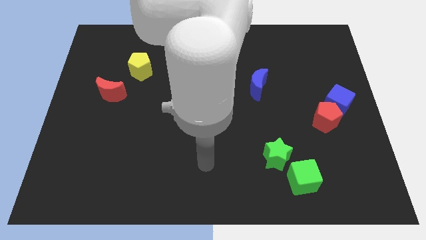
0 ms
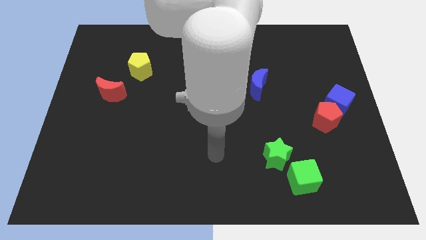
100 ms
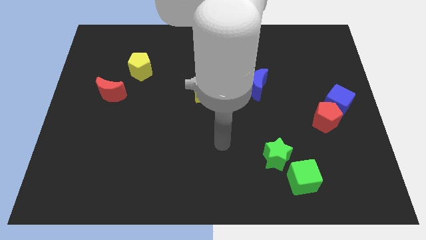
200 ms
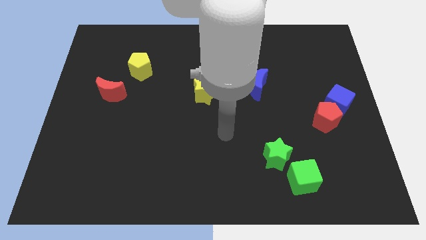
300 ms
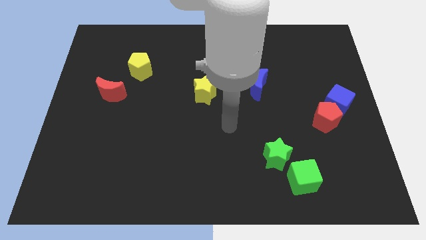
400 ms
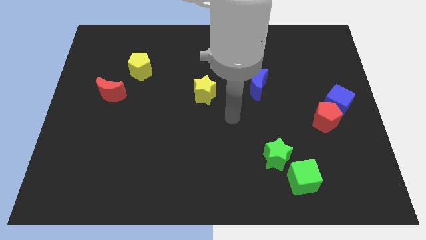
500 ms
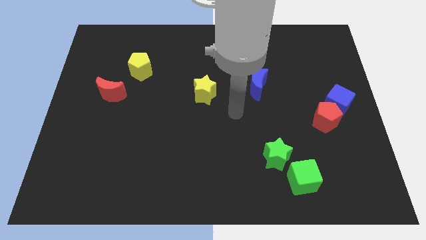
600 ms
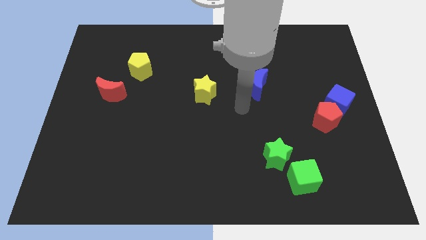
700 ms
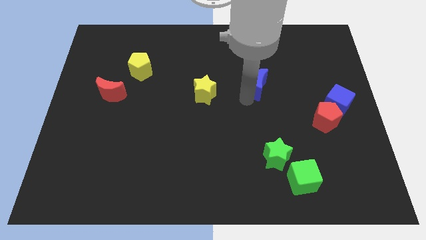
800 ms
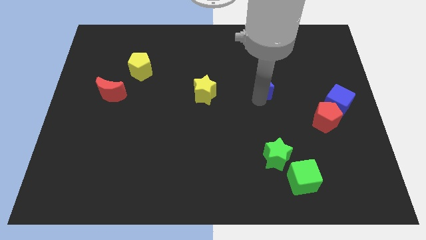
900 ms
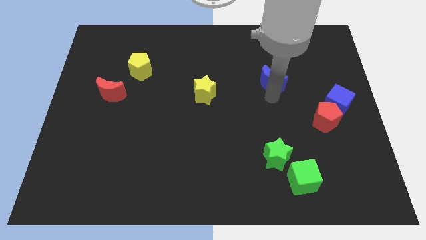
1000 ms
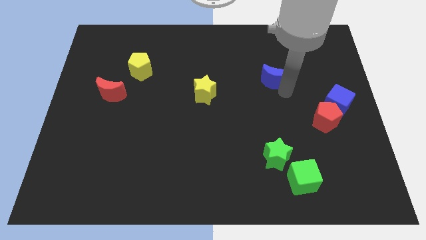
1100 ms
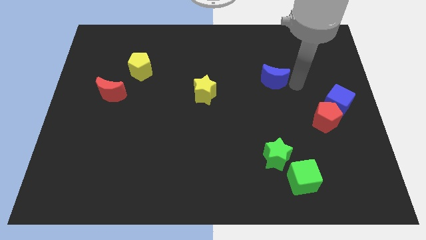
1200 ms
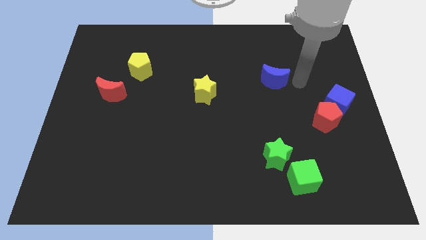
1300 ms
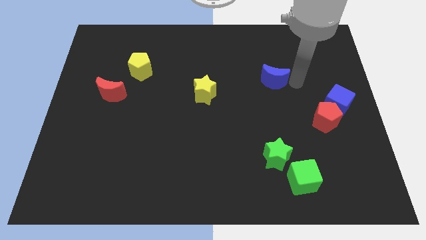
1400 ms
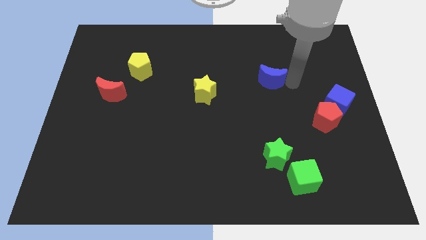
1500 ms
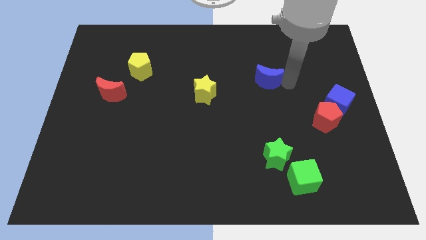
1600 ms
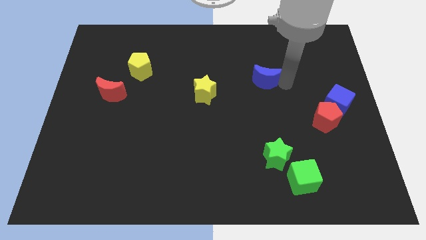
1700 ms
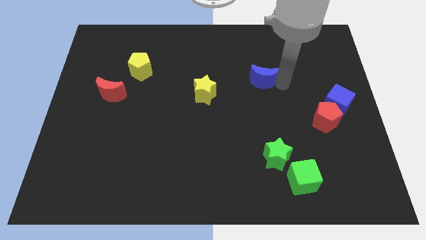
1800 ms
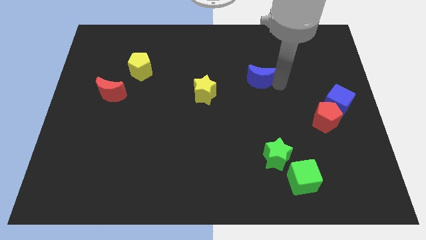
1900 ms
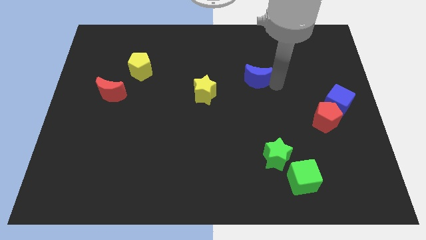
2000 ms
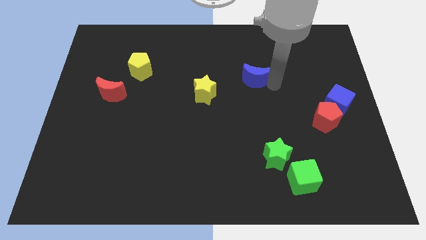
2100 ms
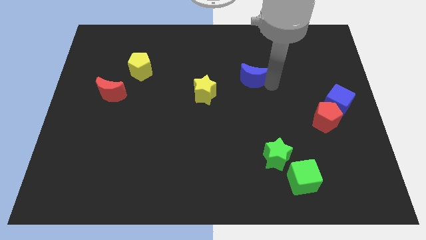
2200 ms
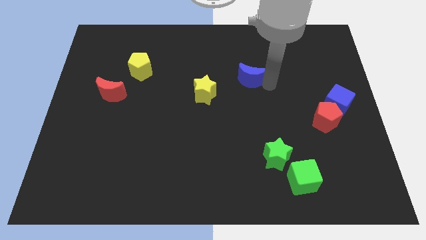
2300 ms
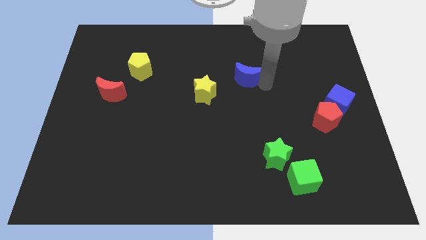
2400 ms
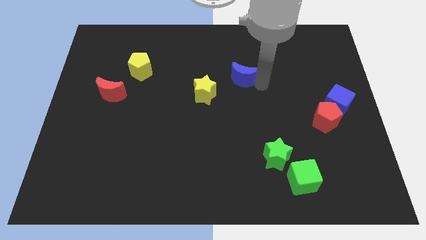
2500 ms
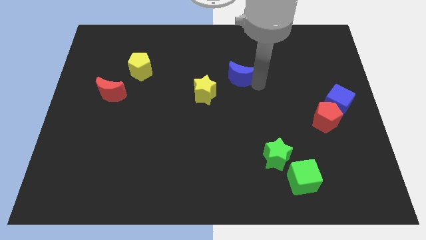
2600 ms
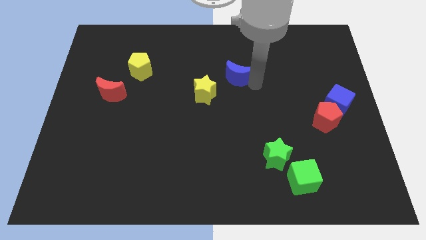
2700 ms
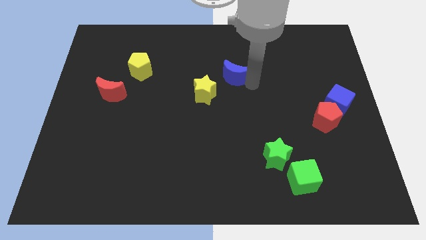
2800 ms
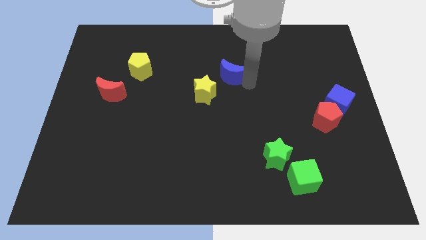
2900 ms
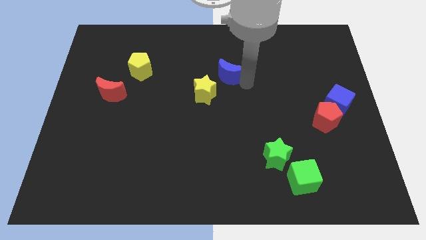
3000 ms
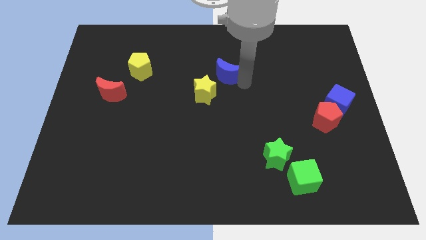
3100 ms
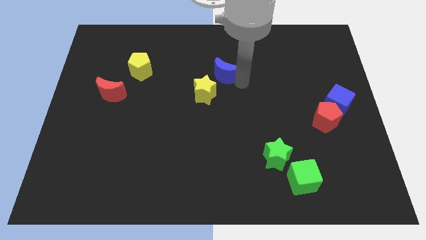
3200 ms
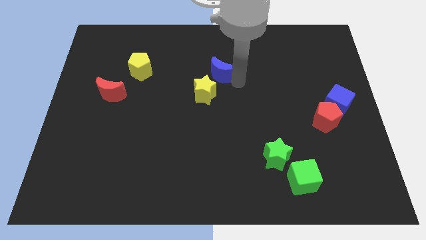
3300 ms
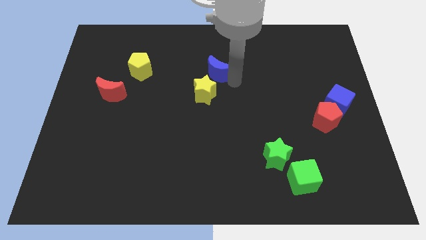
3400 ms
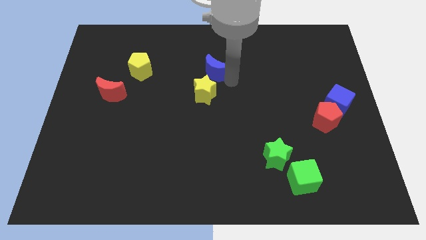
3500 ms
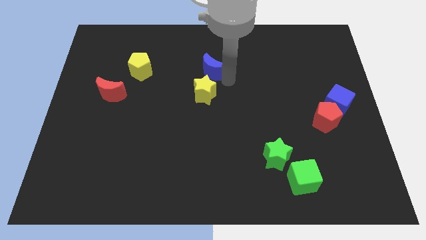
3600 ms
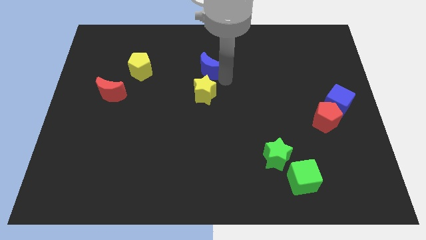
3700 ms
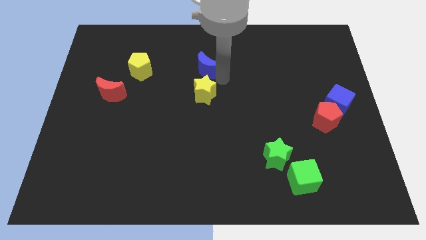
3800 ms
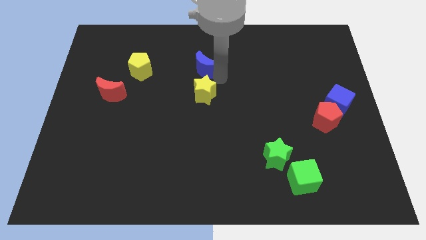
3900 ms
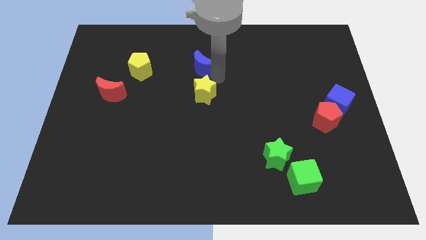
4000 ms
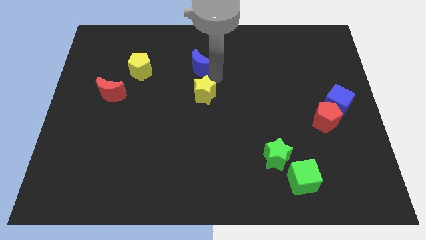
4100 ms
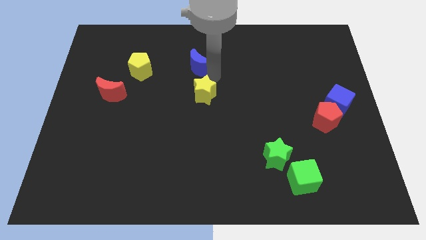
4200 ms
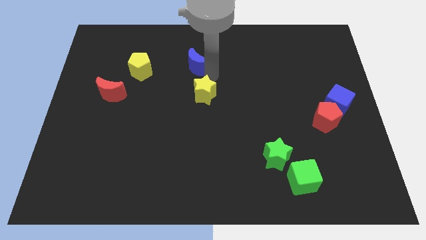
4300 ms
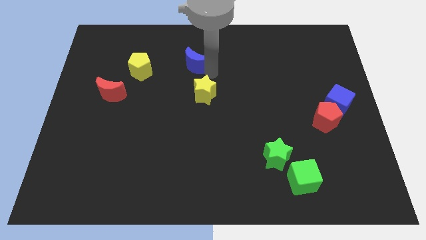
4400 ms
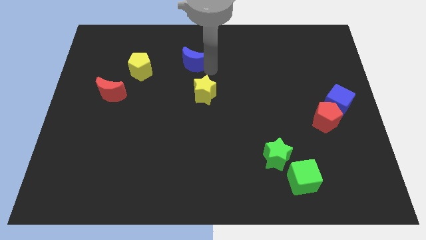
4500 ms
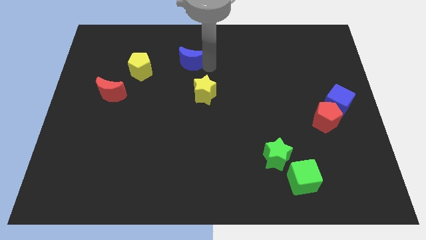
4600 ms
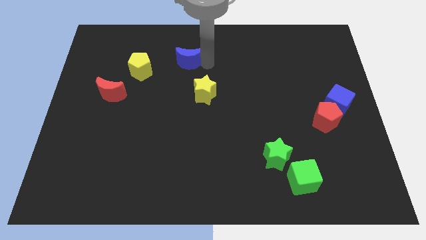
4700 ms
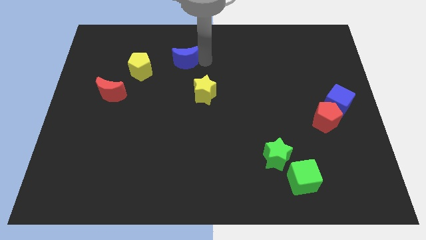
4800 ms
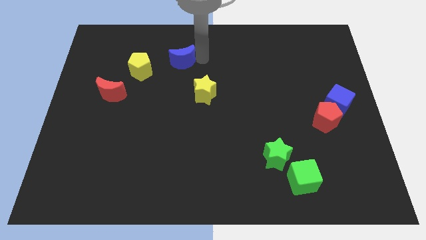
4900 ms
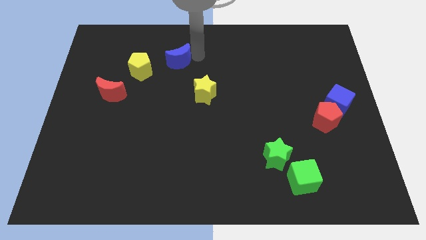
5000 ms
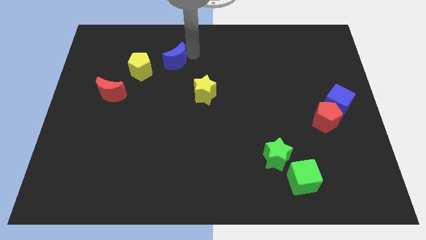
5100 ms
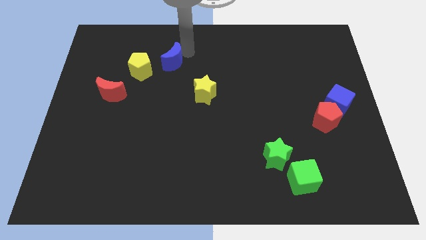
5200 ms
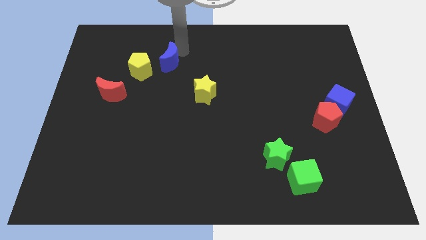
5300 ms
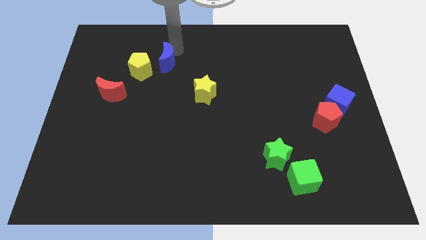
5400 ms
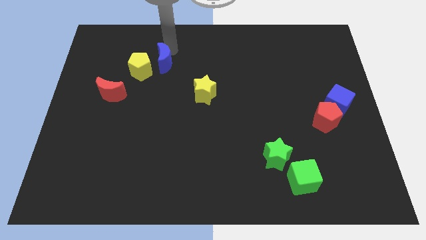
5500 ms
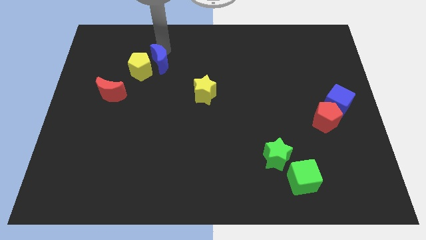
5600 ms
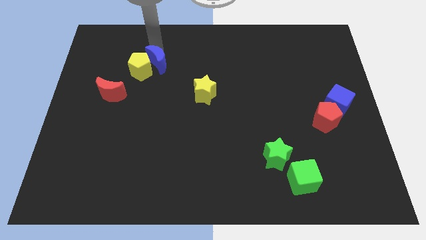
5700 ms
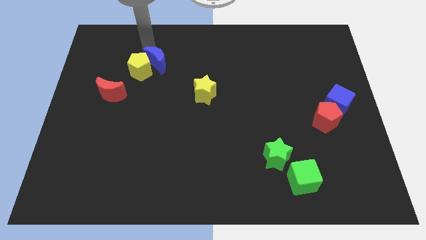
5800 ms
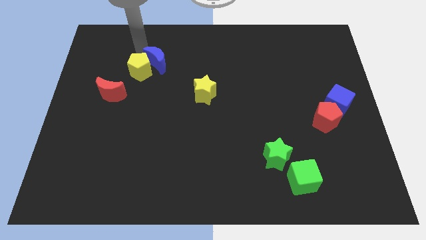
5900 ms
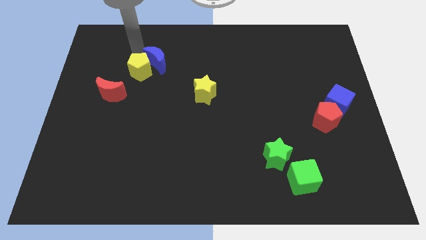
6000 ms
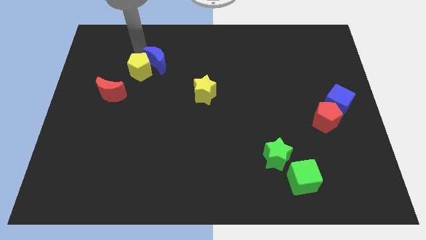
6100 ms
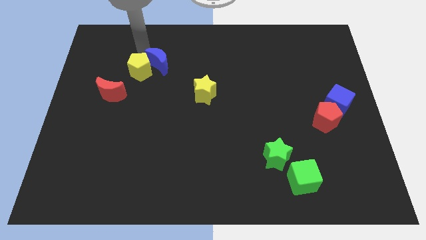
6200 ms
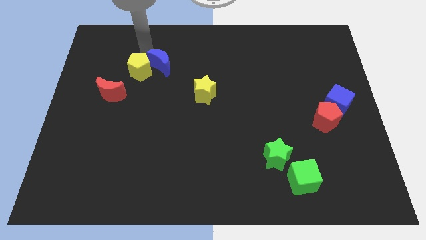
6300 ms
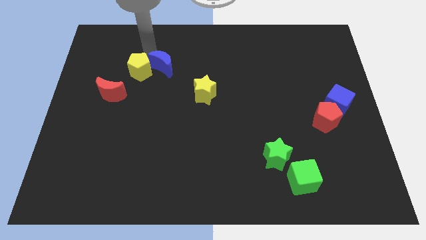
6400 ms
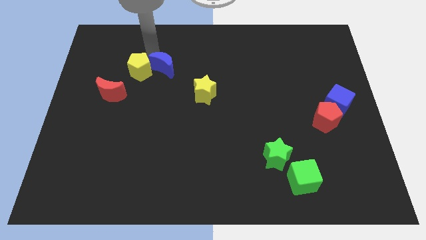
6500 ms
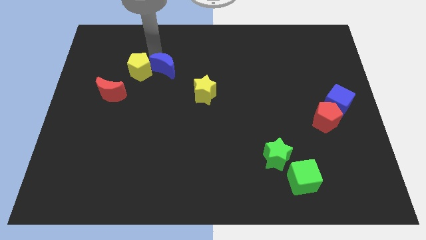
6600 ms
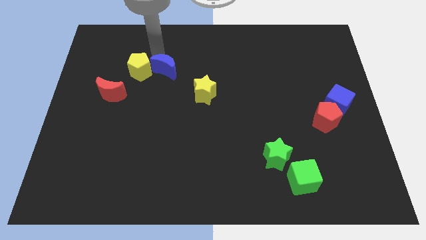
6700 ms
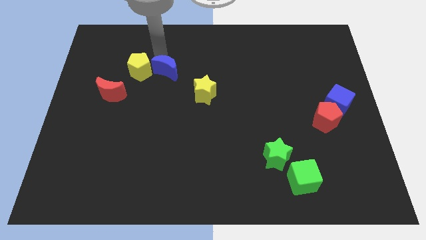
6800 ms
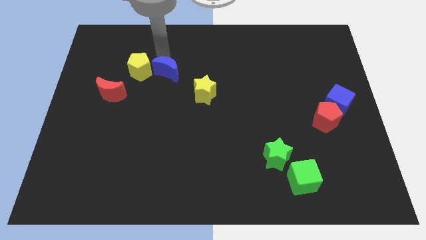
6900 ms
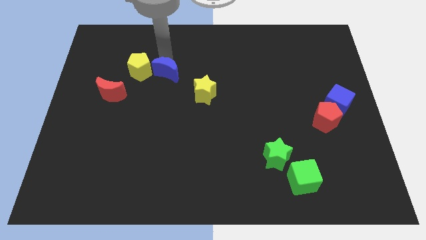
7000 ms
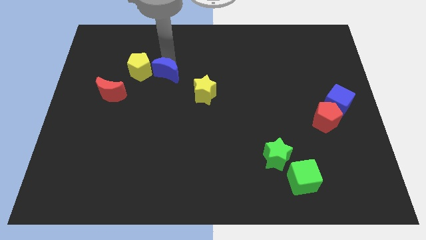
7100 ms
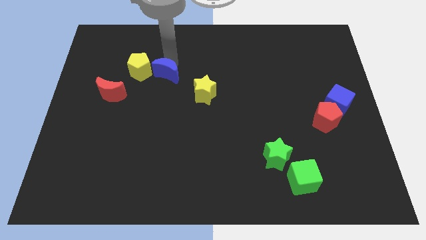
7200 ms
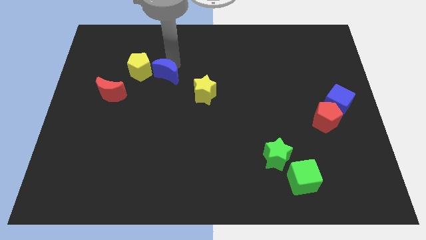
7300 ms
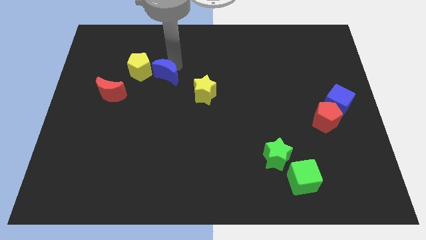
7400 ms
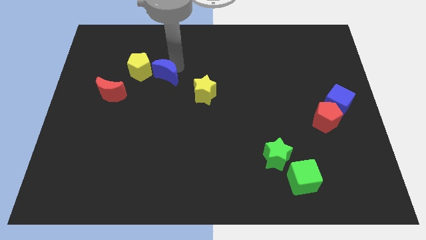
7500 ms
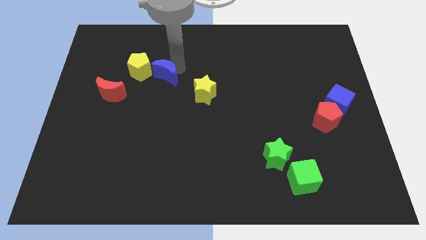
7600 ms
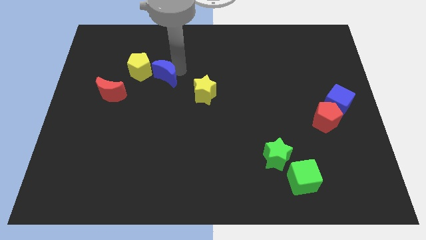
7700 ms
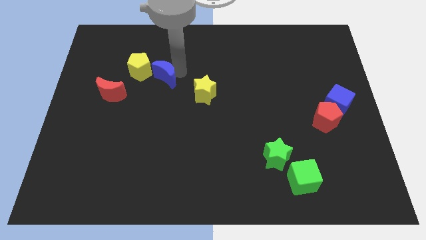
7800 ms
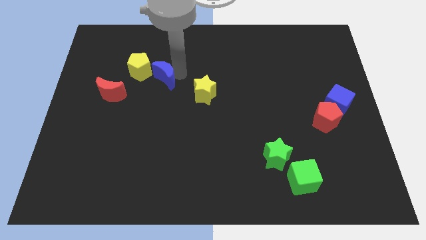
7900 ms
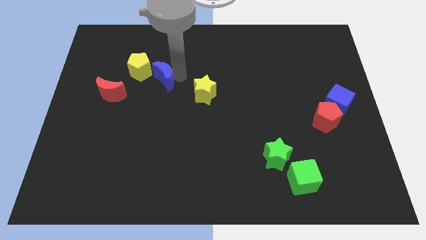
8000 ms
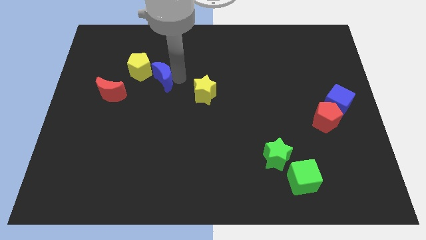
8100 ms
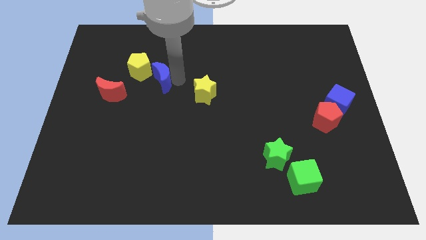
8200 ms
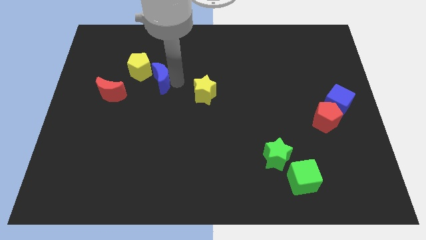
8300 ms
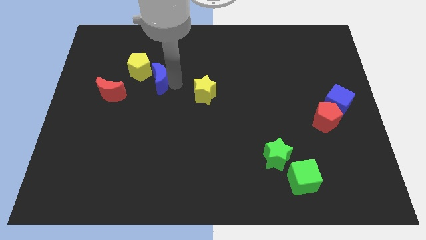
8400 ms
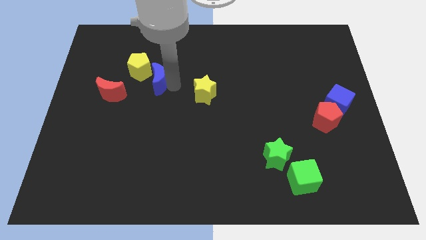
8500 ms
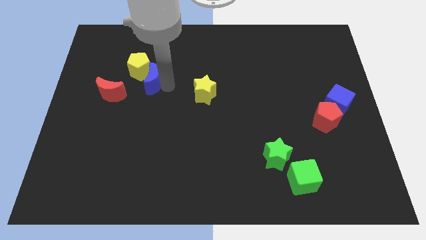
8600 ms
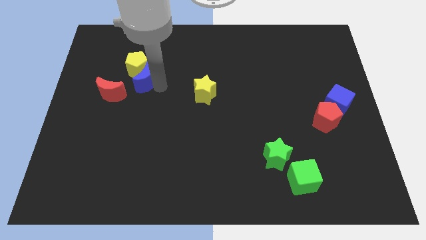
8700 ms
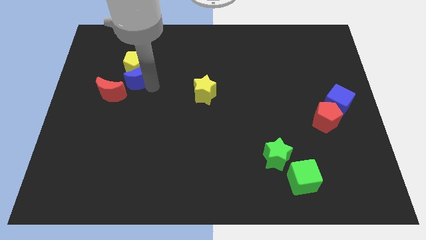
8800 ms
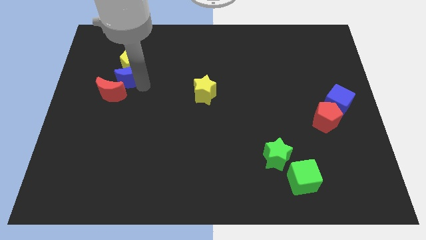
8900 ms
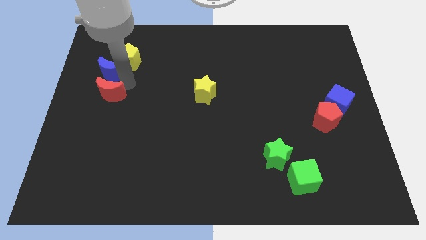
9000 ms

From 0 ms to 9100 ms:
move the blue moon to the left side of the yellow pentagon
